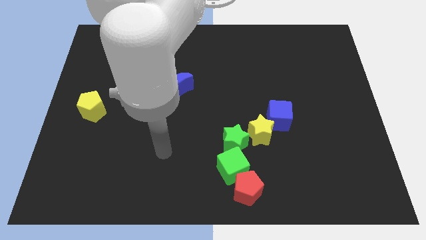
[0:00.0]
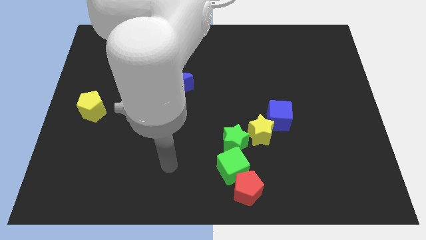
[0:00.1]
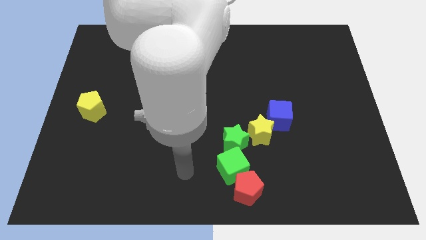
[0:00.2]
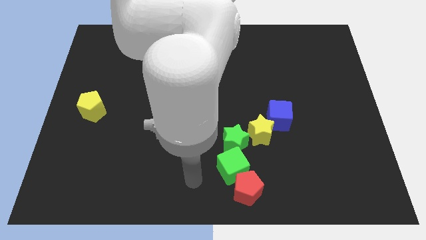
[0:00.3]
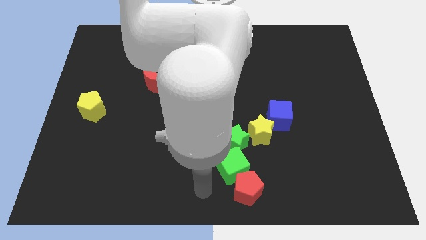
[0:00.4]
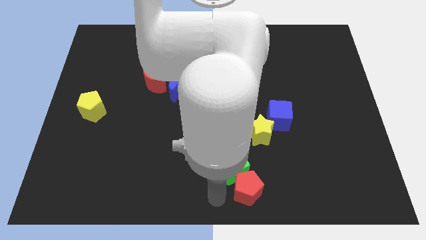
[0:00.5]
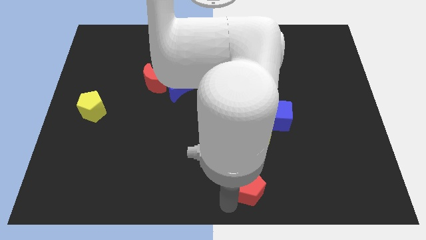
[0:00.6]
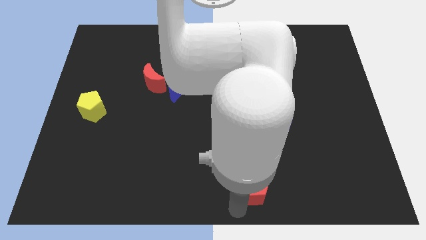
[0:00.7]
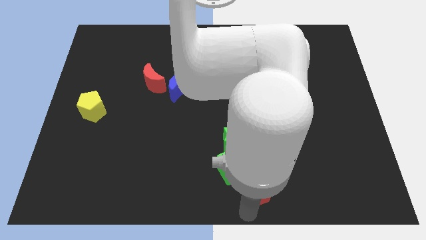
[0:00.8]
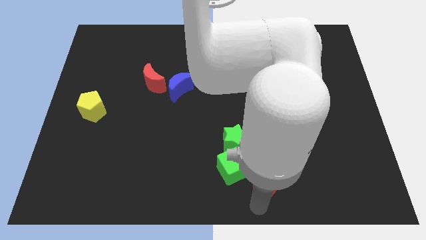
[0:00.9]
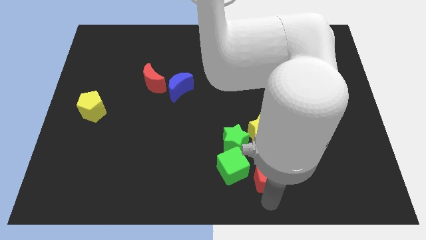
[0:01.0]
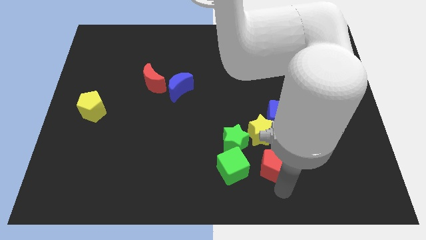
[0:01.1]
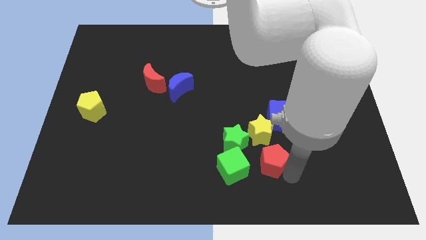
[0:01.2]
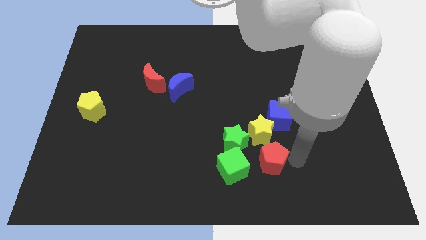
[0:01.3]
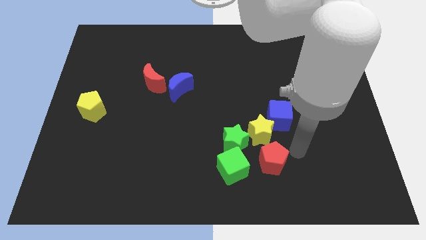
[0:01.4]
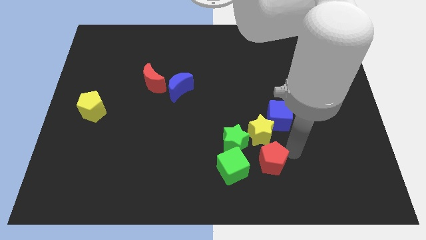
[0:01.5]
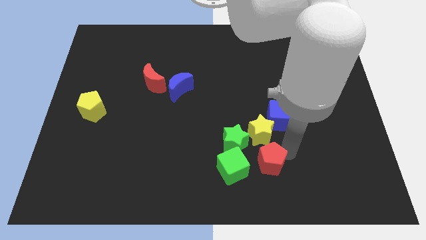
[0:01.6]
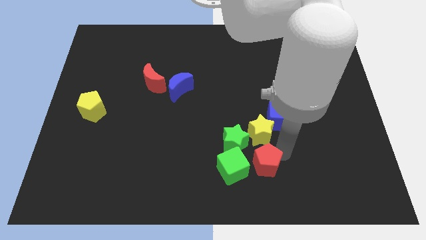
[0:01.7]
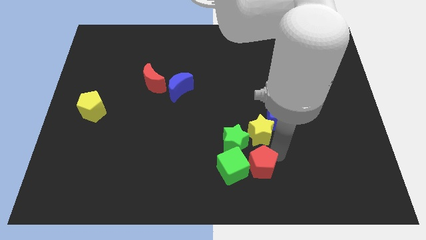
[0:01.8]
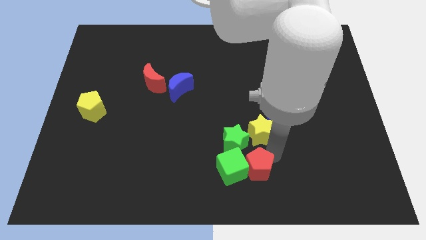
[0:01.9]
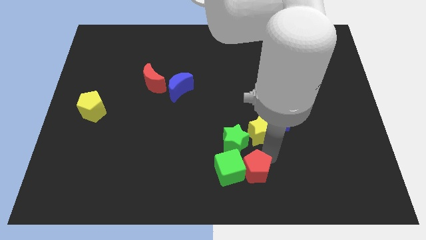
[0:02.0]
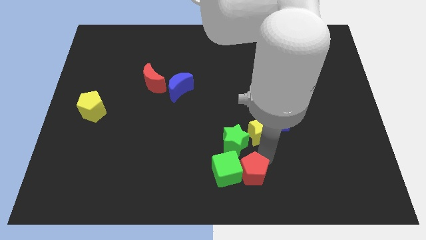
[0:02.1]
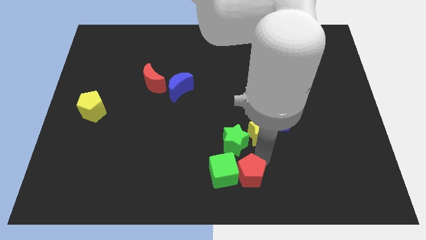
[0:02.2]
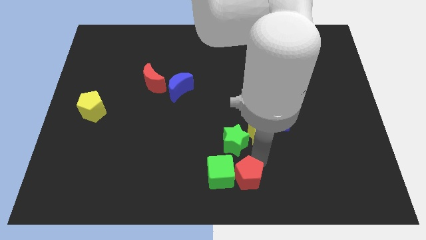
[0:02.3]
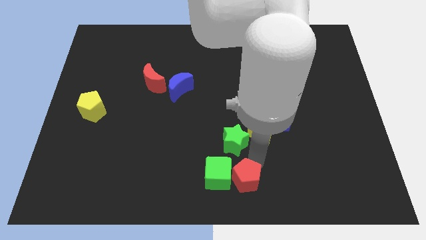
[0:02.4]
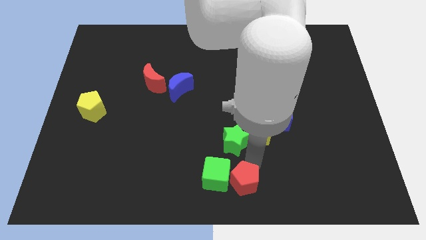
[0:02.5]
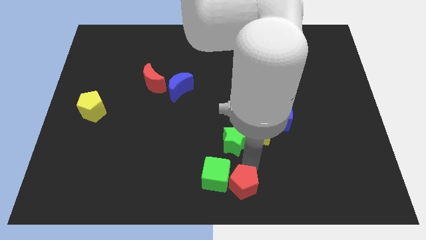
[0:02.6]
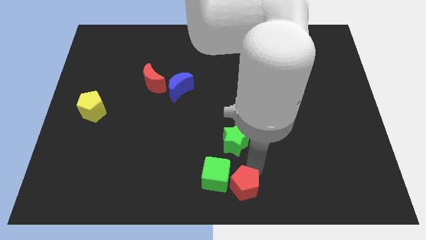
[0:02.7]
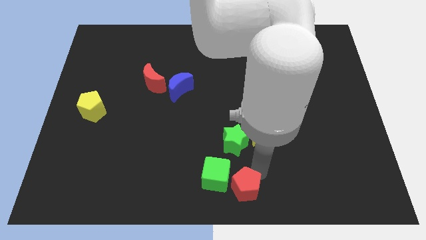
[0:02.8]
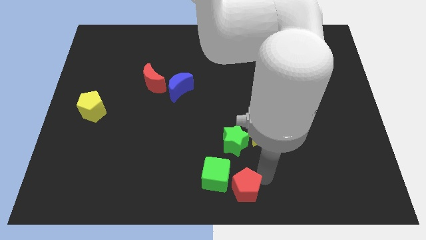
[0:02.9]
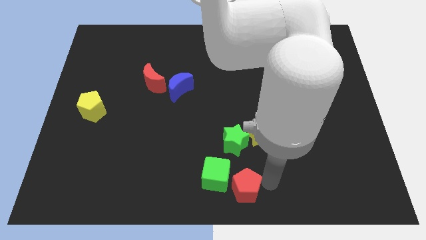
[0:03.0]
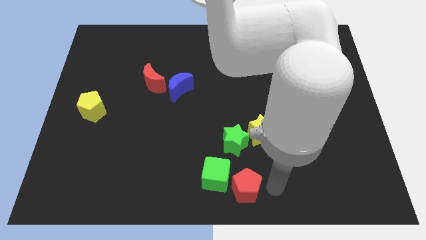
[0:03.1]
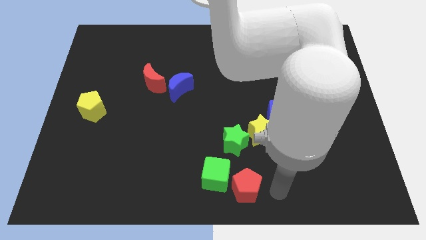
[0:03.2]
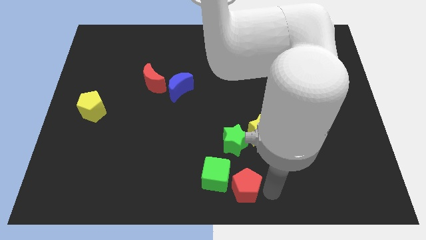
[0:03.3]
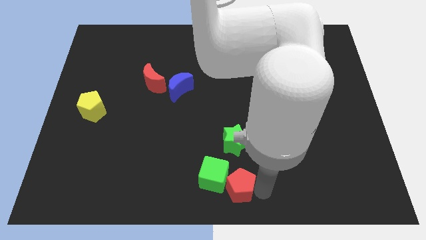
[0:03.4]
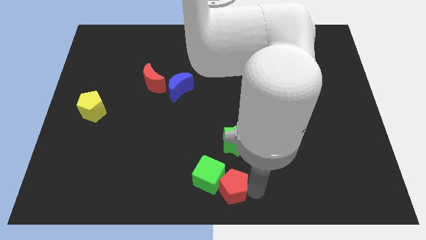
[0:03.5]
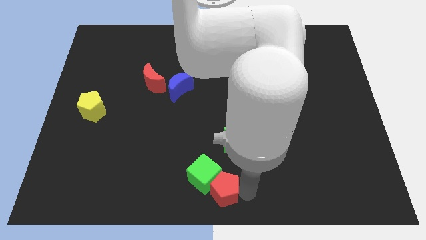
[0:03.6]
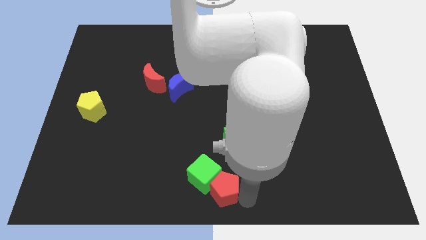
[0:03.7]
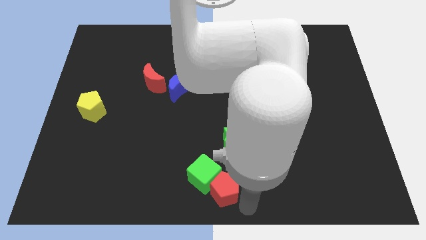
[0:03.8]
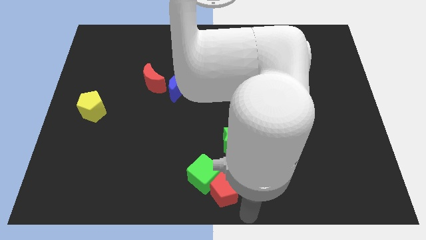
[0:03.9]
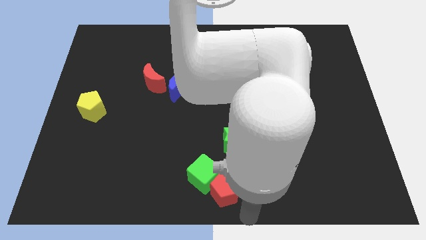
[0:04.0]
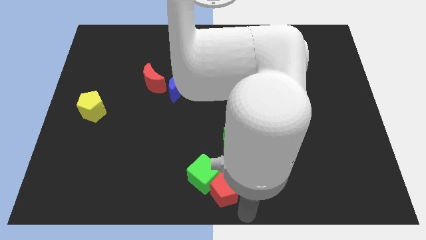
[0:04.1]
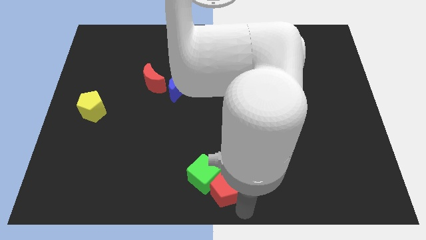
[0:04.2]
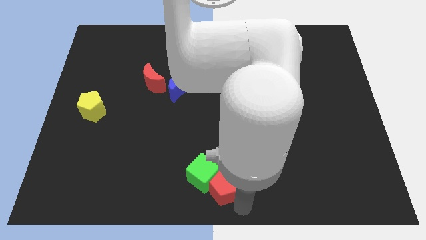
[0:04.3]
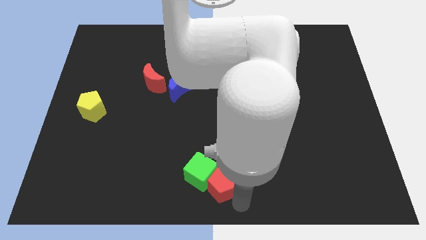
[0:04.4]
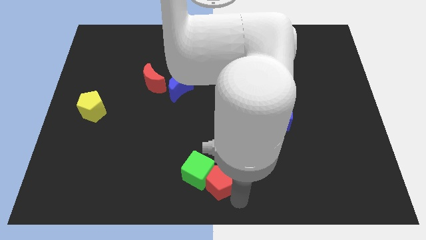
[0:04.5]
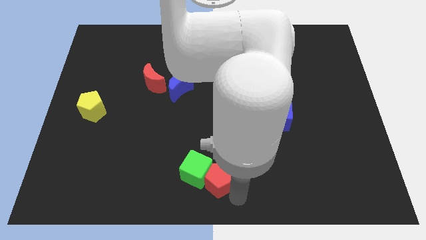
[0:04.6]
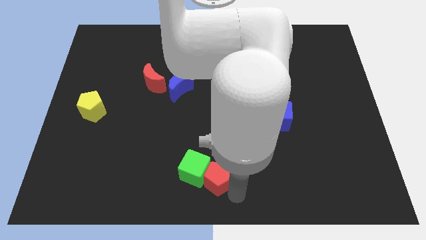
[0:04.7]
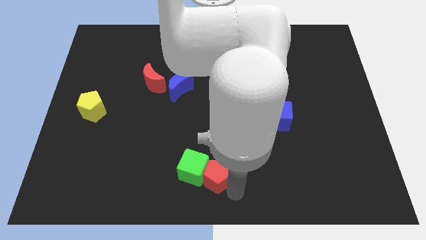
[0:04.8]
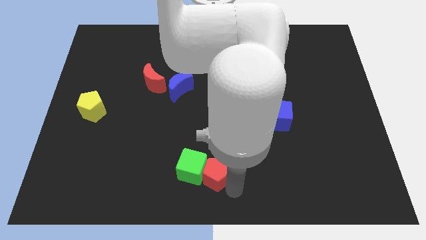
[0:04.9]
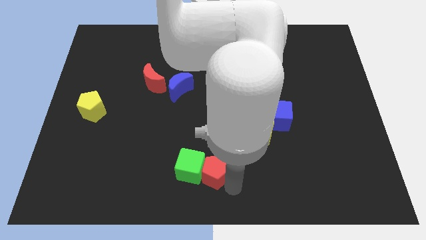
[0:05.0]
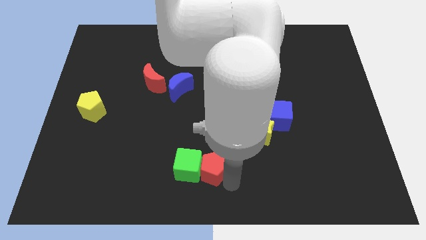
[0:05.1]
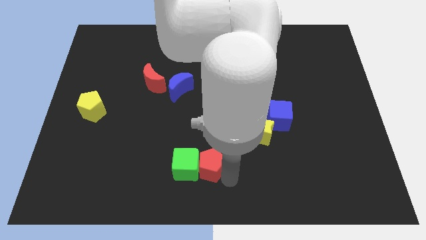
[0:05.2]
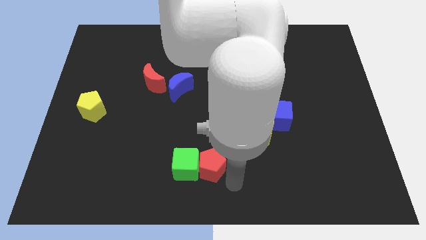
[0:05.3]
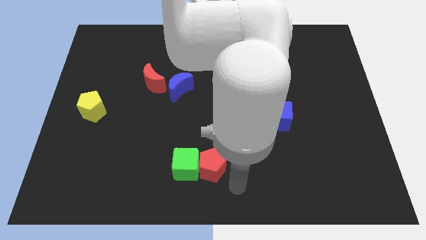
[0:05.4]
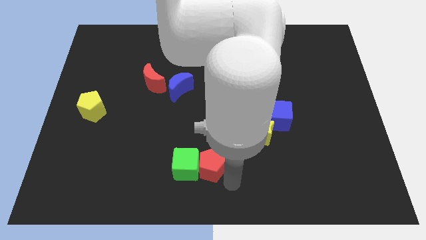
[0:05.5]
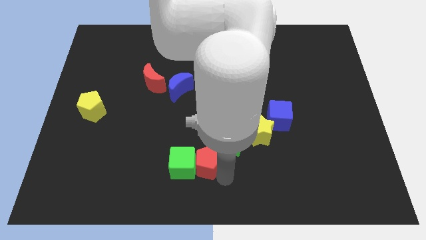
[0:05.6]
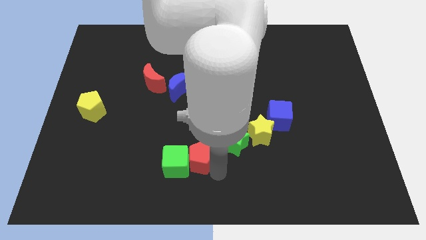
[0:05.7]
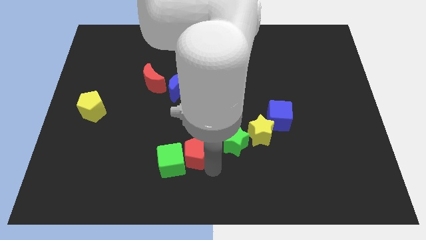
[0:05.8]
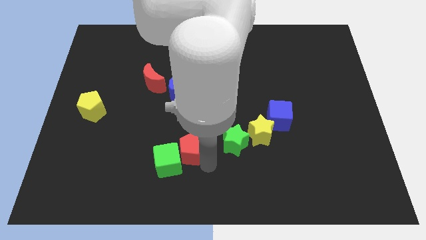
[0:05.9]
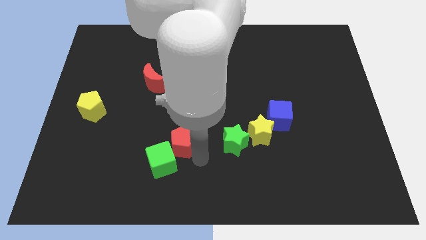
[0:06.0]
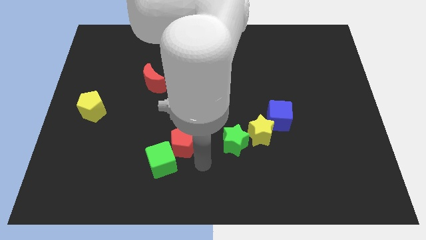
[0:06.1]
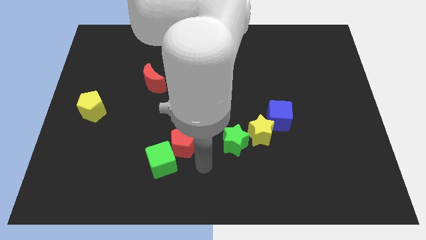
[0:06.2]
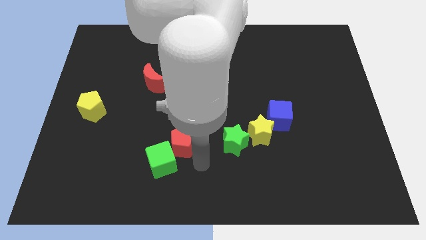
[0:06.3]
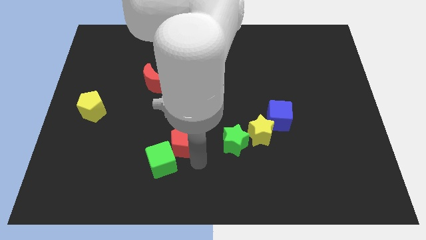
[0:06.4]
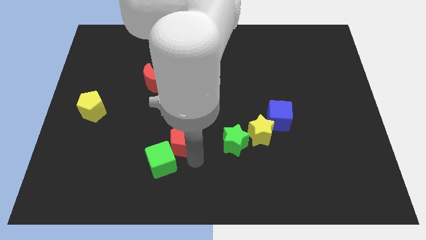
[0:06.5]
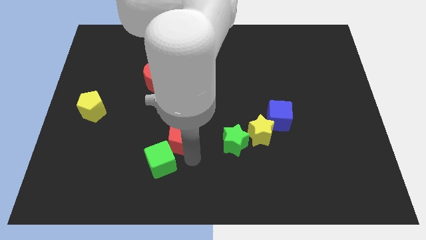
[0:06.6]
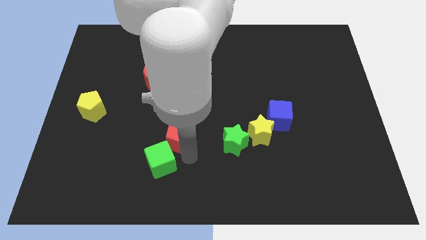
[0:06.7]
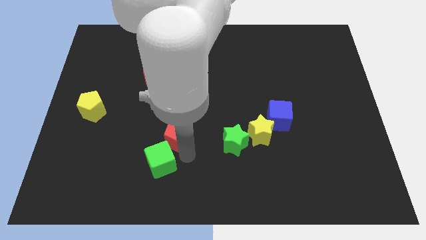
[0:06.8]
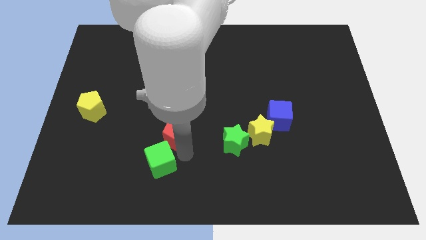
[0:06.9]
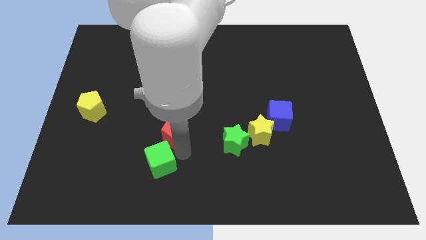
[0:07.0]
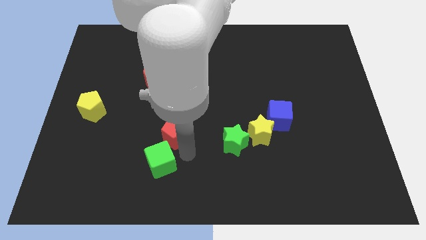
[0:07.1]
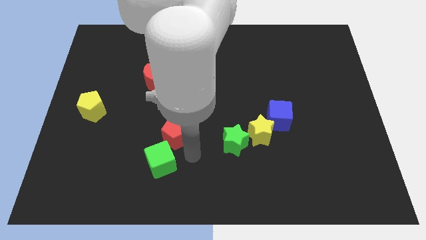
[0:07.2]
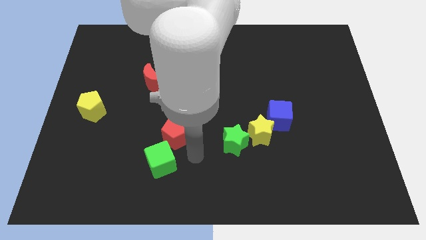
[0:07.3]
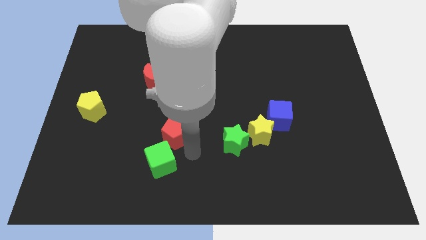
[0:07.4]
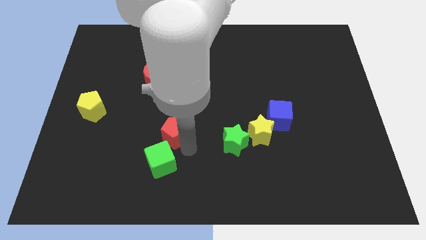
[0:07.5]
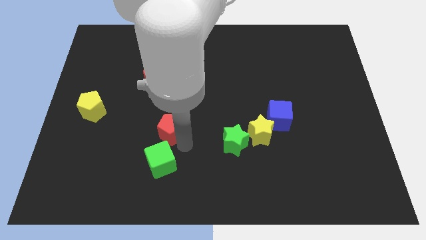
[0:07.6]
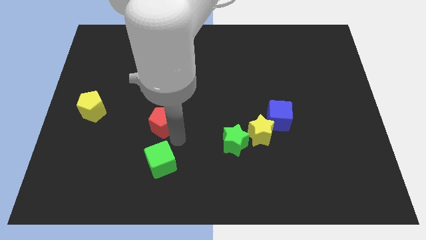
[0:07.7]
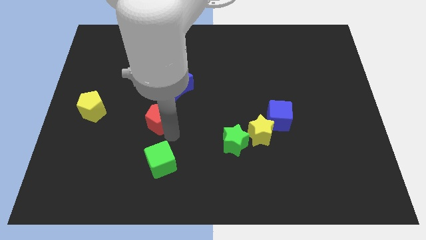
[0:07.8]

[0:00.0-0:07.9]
put the red pentagon to the bottom left side of the blue moon
